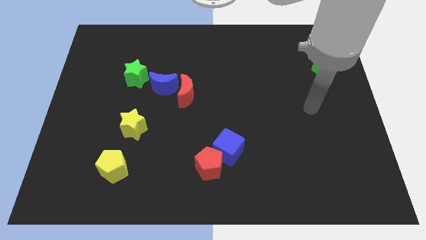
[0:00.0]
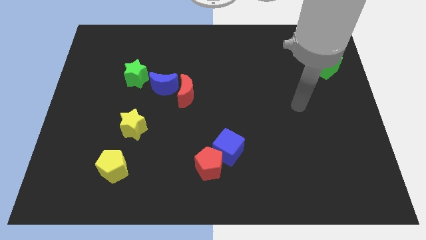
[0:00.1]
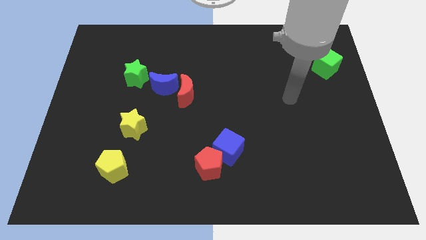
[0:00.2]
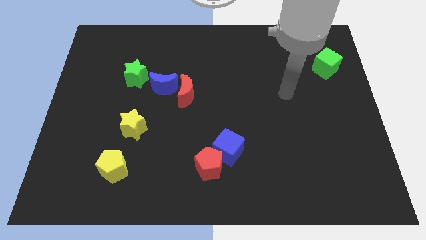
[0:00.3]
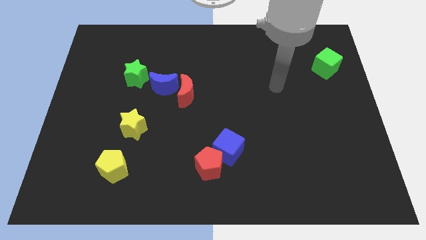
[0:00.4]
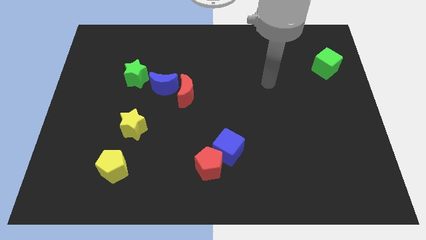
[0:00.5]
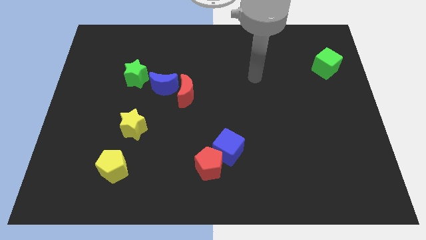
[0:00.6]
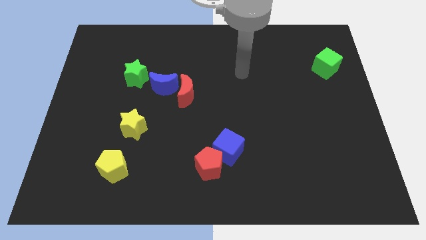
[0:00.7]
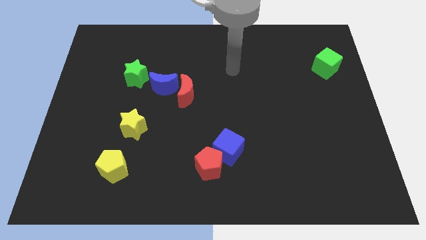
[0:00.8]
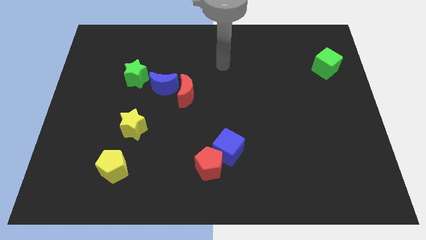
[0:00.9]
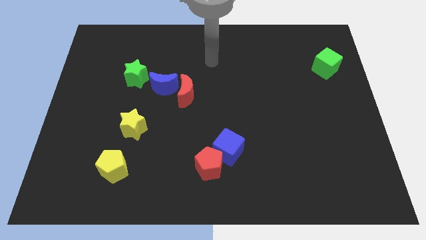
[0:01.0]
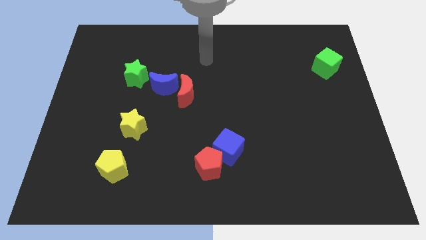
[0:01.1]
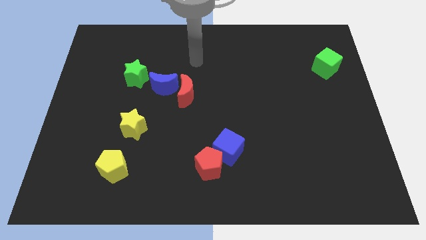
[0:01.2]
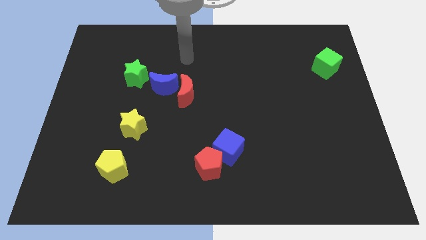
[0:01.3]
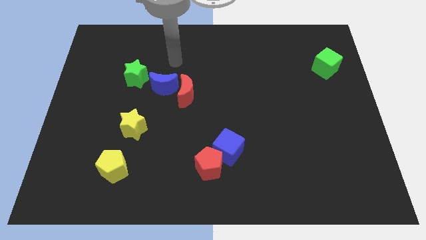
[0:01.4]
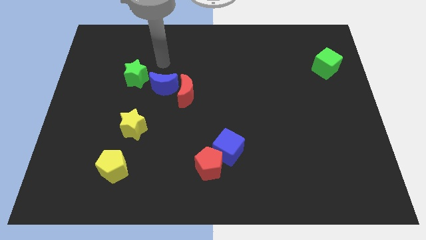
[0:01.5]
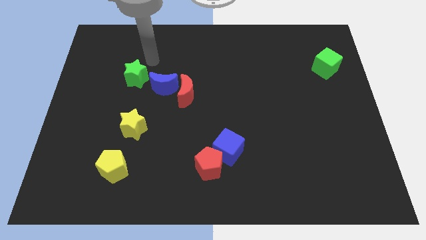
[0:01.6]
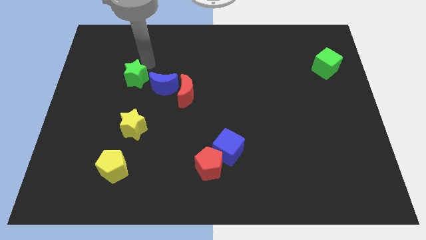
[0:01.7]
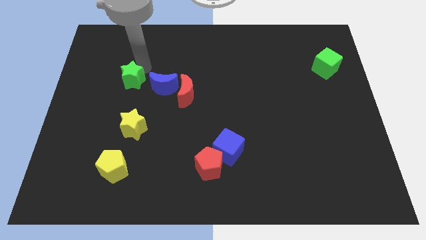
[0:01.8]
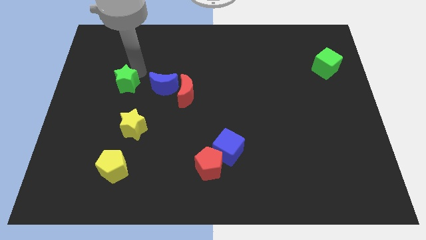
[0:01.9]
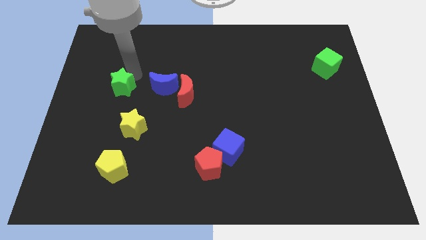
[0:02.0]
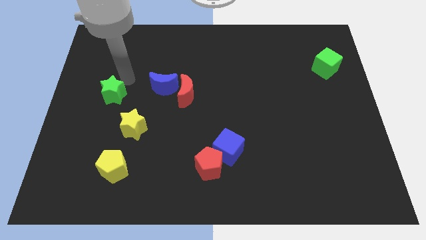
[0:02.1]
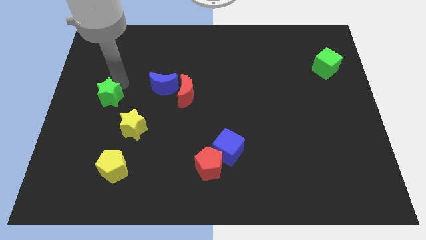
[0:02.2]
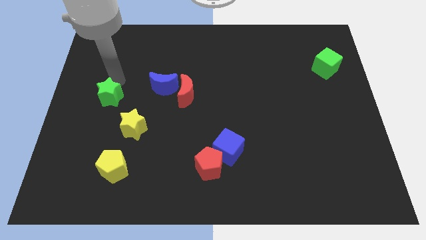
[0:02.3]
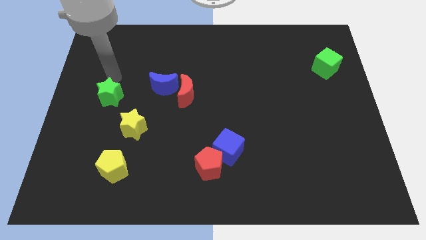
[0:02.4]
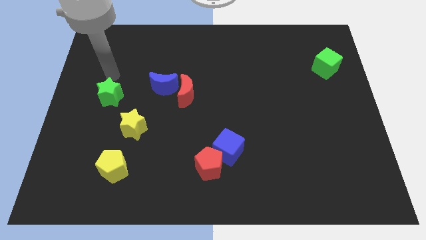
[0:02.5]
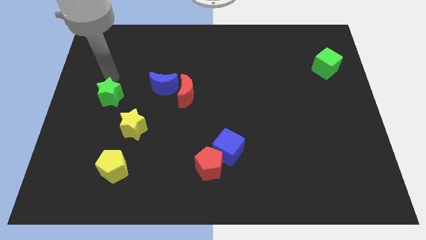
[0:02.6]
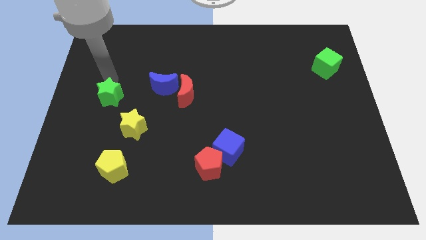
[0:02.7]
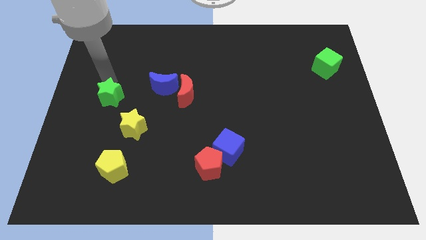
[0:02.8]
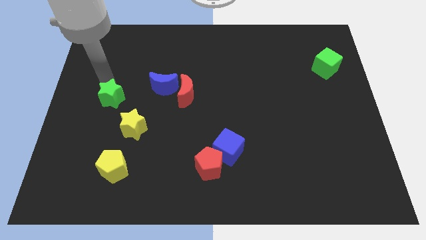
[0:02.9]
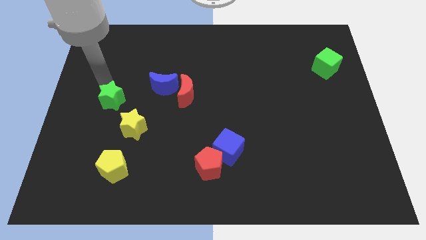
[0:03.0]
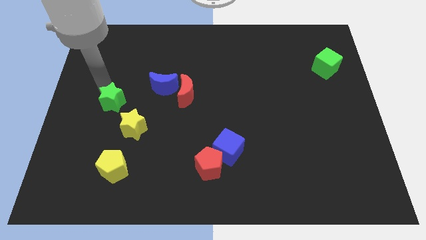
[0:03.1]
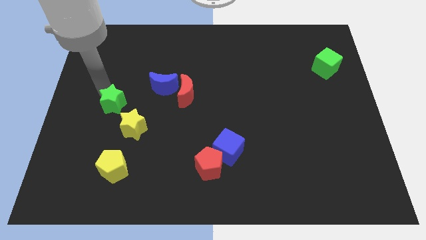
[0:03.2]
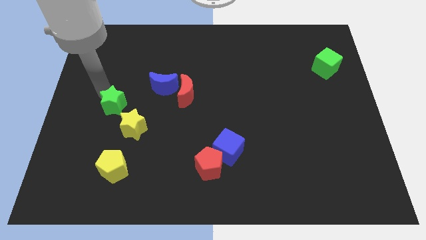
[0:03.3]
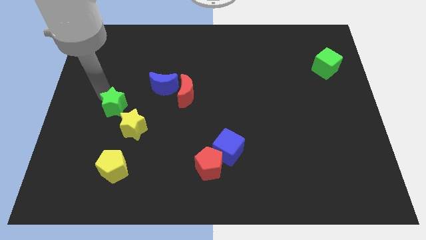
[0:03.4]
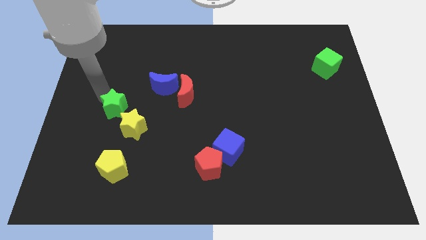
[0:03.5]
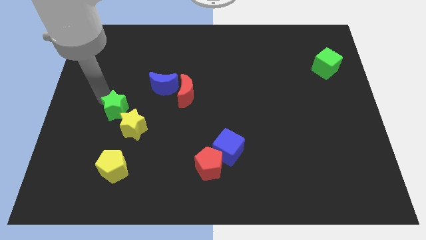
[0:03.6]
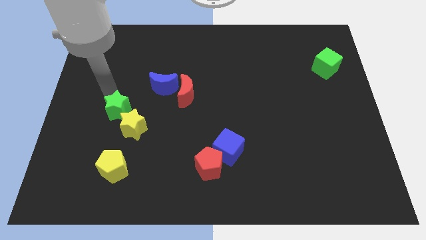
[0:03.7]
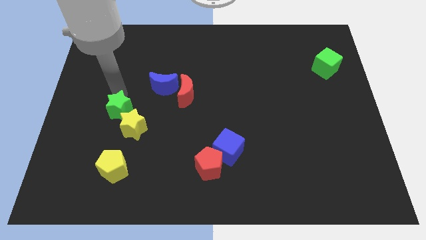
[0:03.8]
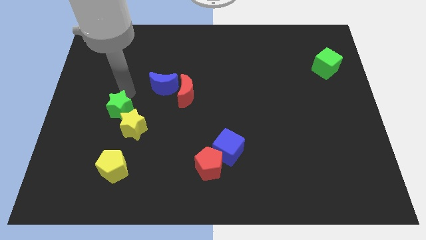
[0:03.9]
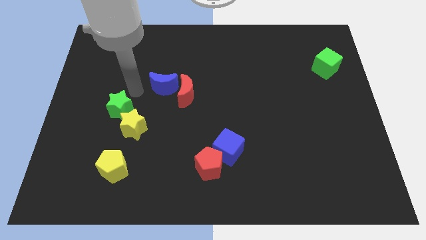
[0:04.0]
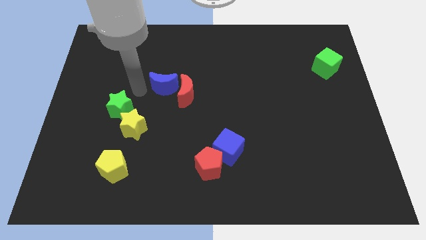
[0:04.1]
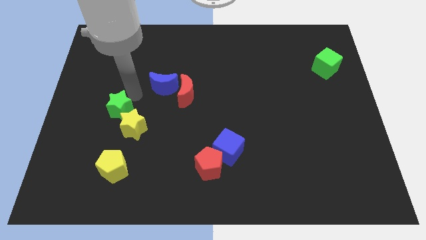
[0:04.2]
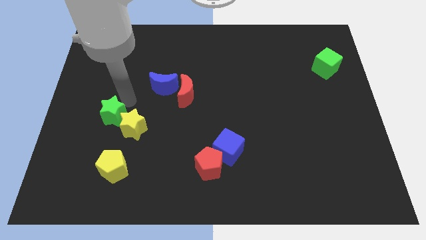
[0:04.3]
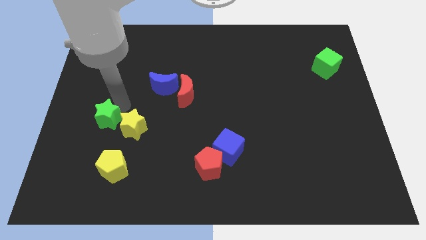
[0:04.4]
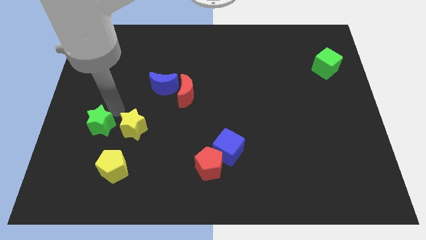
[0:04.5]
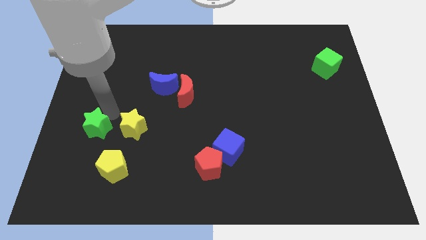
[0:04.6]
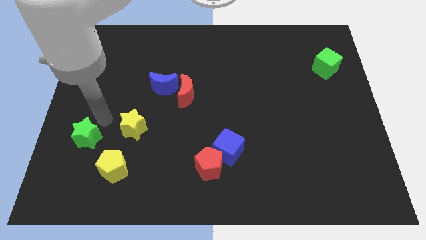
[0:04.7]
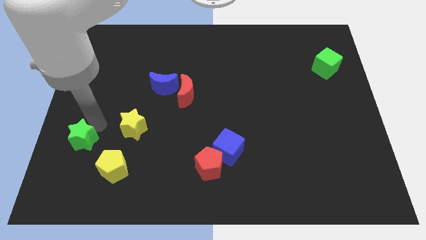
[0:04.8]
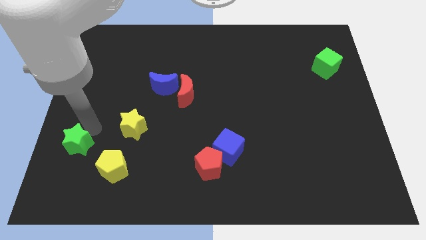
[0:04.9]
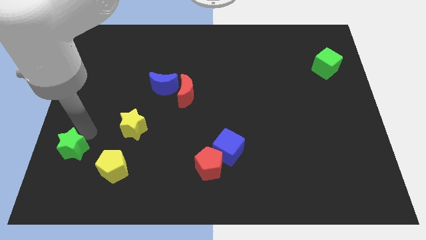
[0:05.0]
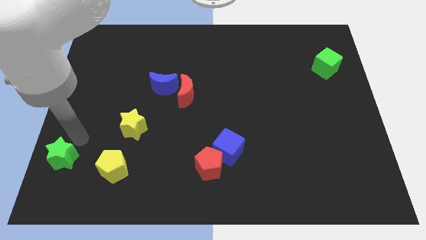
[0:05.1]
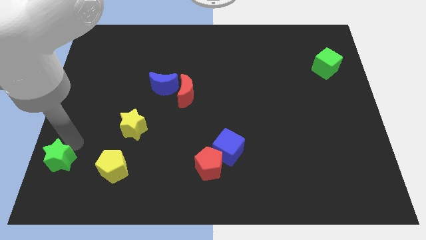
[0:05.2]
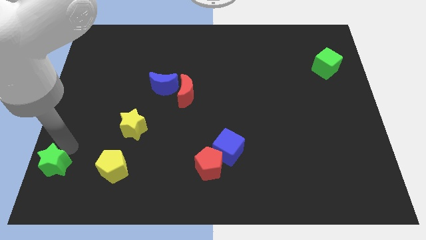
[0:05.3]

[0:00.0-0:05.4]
slide the green star to the bottom left of the board
